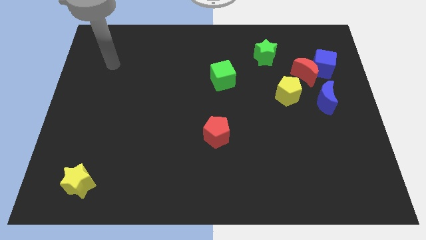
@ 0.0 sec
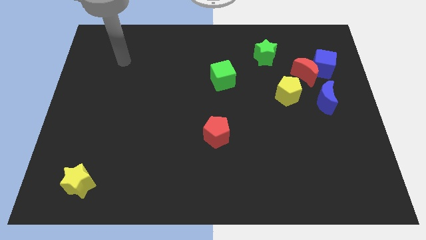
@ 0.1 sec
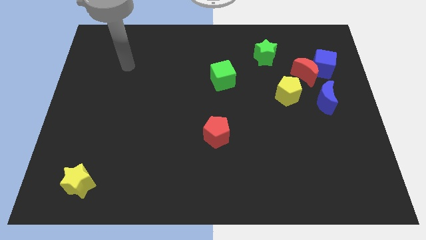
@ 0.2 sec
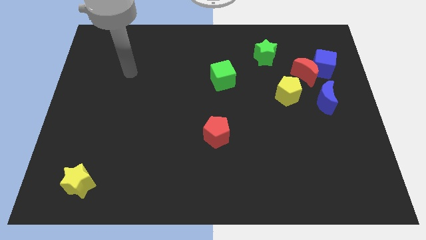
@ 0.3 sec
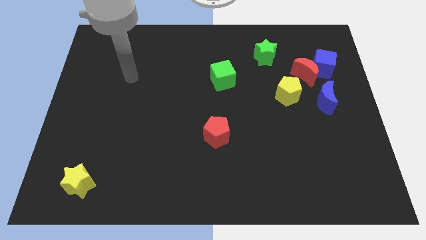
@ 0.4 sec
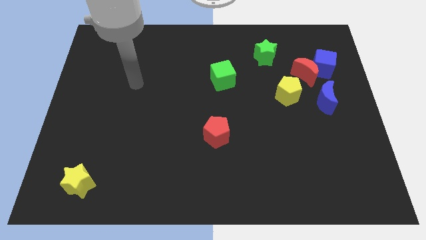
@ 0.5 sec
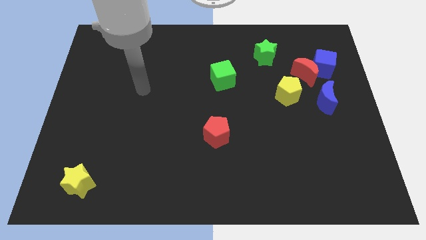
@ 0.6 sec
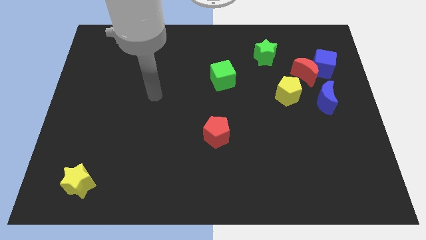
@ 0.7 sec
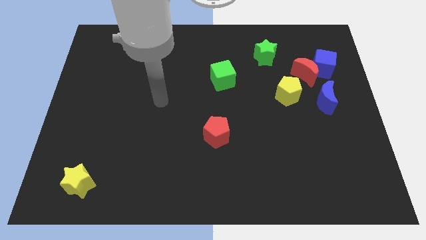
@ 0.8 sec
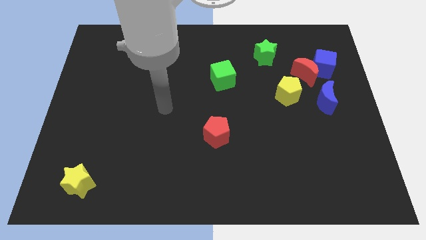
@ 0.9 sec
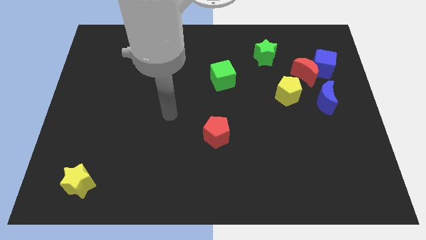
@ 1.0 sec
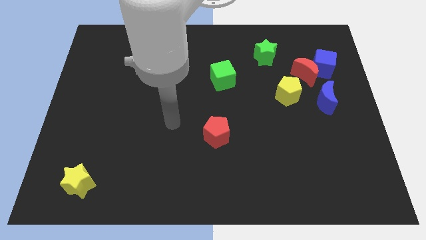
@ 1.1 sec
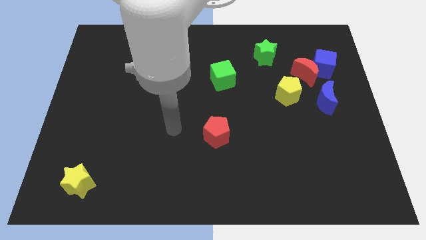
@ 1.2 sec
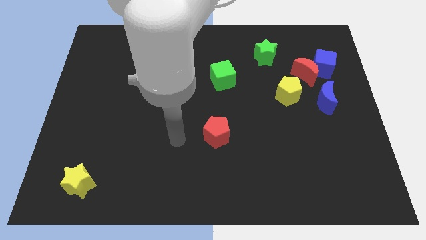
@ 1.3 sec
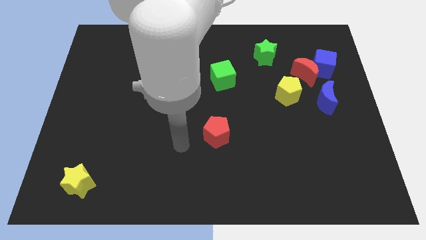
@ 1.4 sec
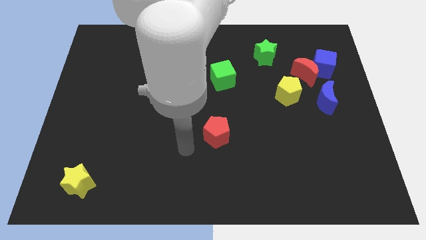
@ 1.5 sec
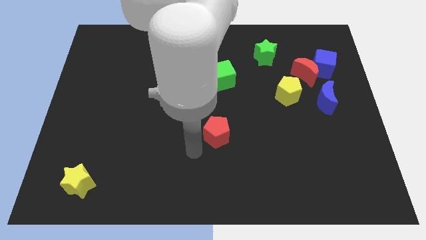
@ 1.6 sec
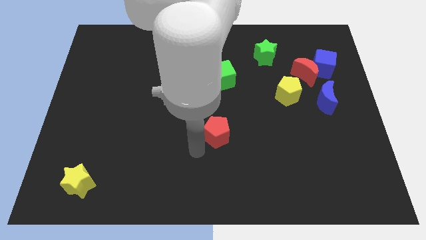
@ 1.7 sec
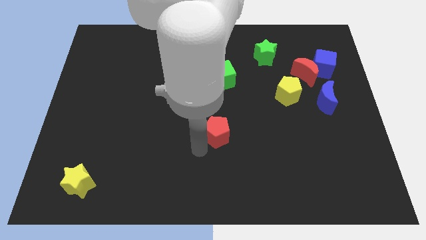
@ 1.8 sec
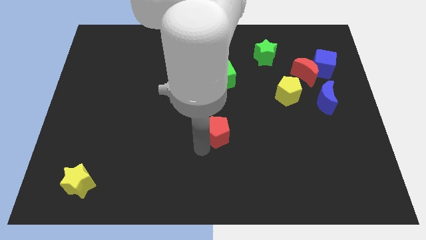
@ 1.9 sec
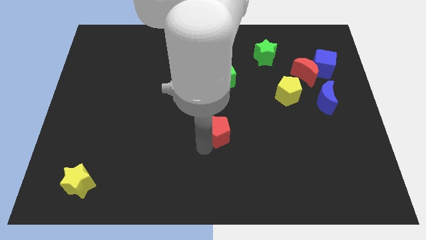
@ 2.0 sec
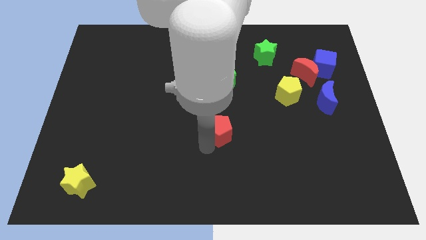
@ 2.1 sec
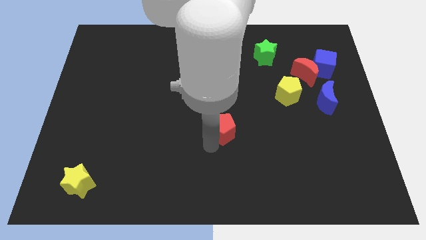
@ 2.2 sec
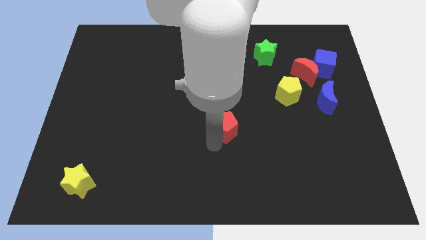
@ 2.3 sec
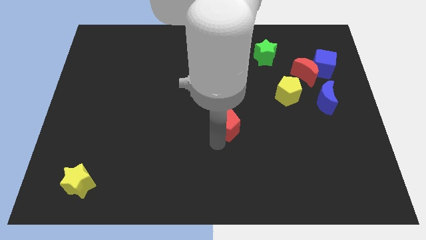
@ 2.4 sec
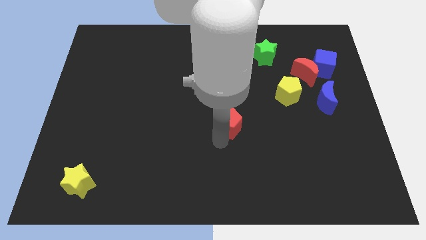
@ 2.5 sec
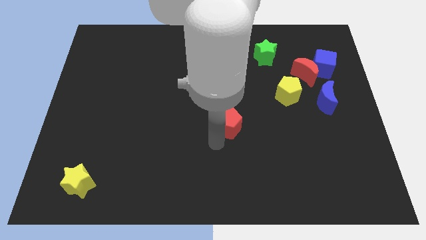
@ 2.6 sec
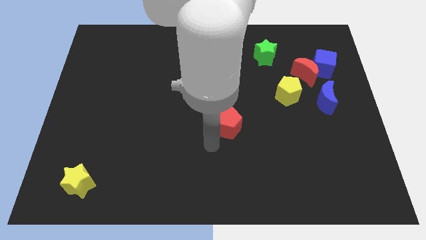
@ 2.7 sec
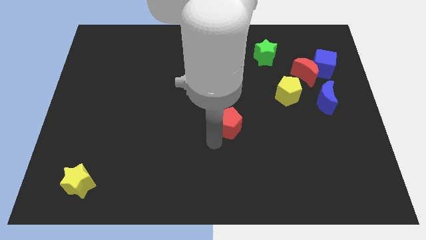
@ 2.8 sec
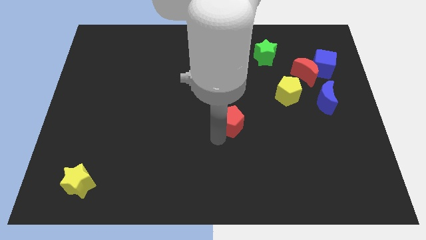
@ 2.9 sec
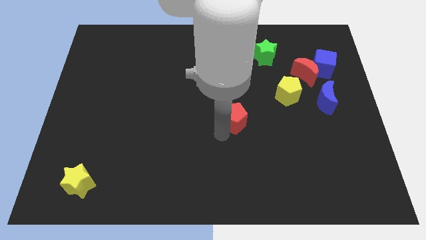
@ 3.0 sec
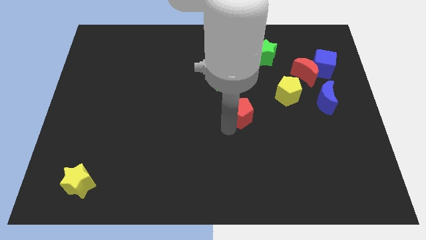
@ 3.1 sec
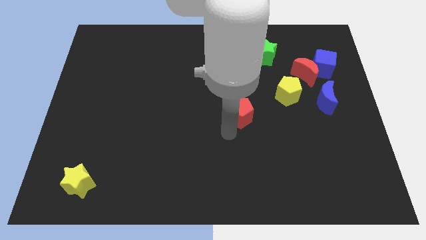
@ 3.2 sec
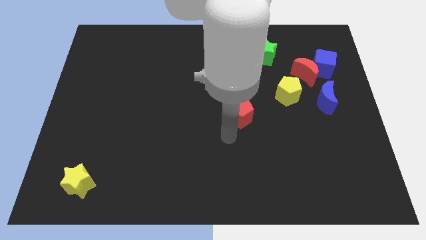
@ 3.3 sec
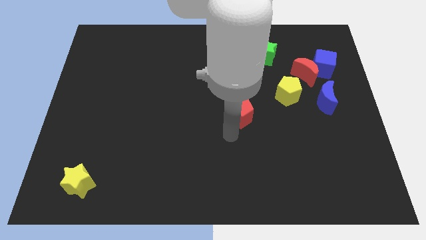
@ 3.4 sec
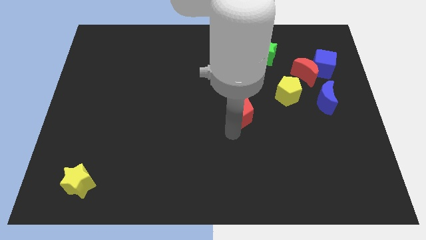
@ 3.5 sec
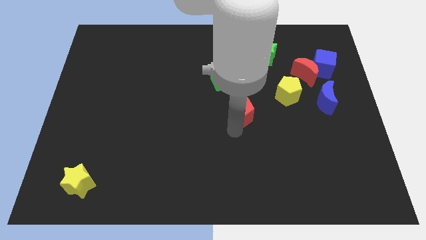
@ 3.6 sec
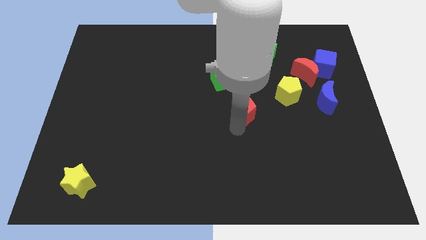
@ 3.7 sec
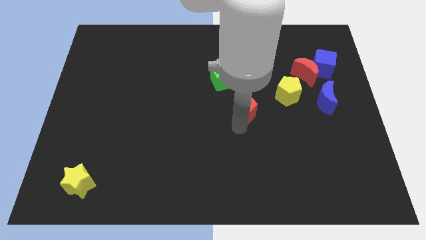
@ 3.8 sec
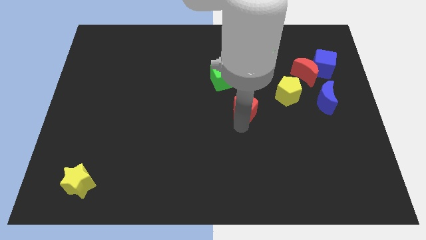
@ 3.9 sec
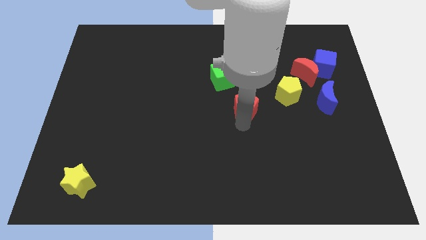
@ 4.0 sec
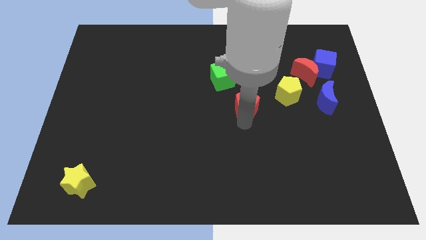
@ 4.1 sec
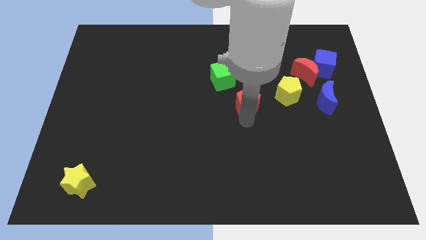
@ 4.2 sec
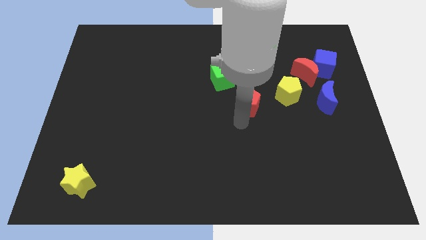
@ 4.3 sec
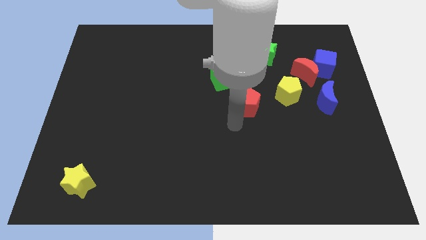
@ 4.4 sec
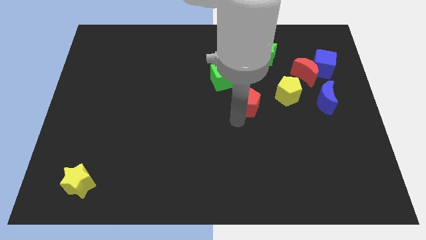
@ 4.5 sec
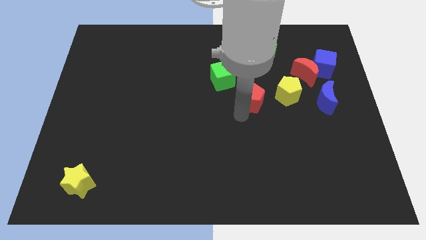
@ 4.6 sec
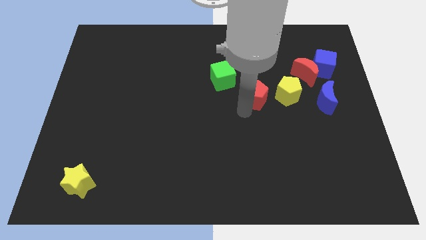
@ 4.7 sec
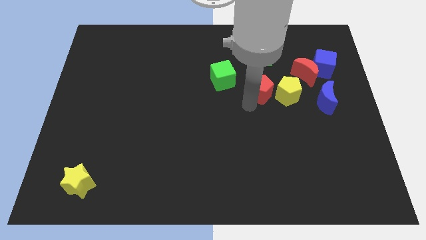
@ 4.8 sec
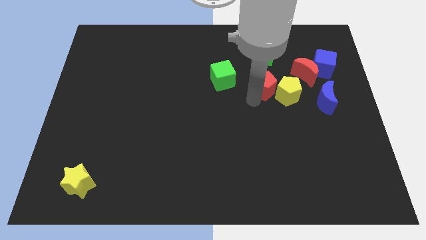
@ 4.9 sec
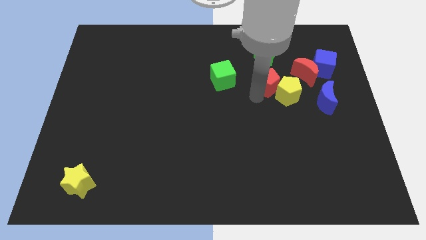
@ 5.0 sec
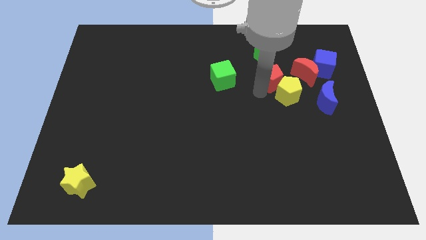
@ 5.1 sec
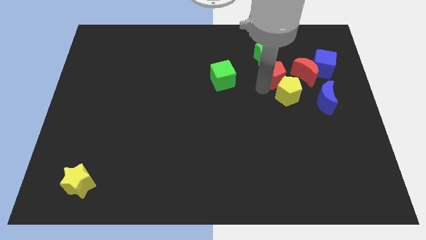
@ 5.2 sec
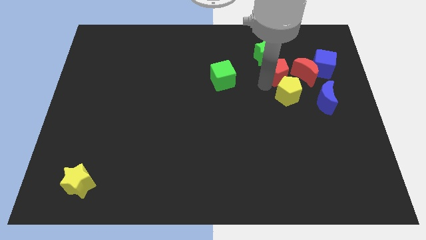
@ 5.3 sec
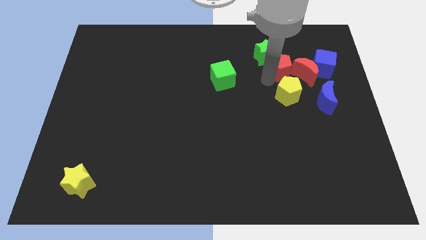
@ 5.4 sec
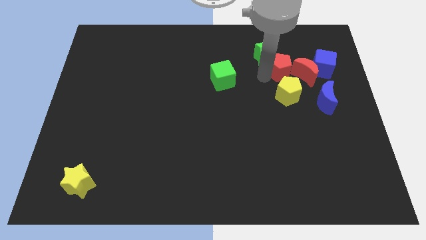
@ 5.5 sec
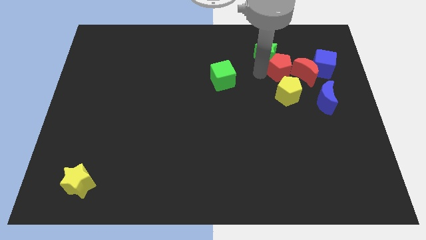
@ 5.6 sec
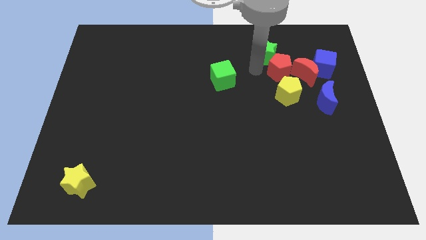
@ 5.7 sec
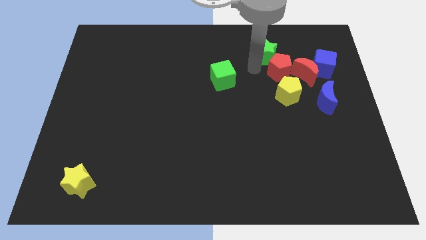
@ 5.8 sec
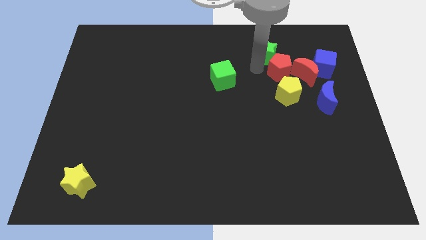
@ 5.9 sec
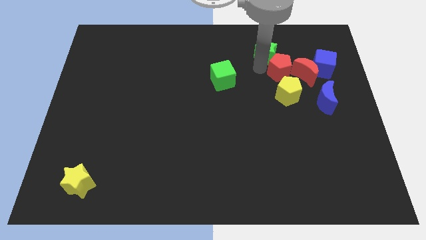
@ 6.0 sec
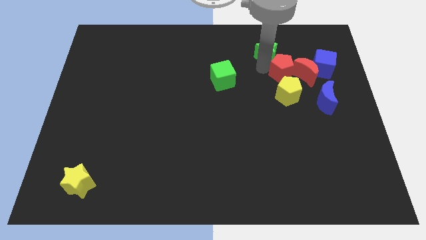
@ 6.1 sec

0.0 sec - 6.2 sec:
move the red pentagon to the red moon

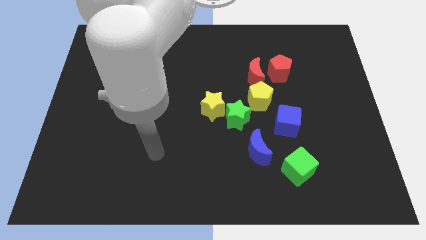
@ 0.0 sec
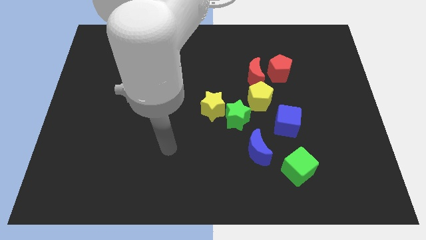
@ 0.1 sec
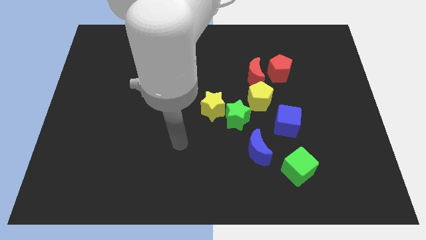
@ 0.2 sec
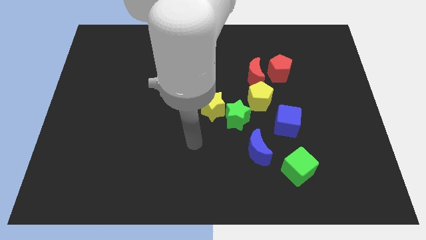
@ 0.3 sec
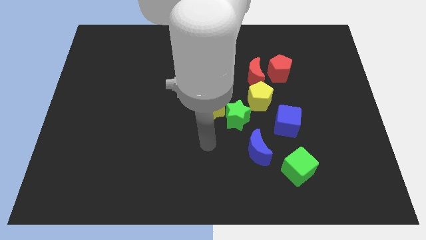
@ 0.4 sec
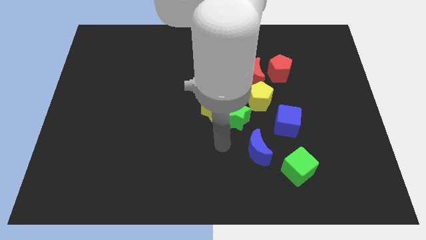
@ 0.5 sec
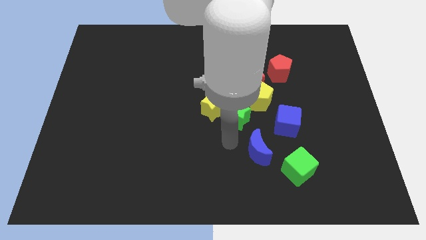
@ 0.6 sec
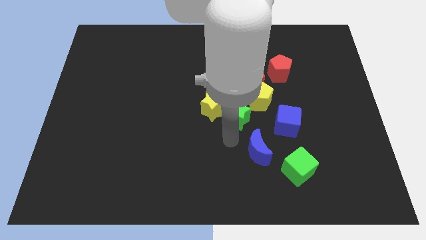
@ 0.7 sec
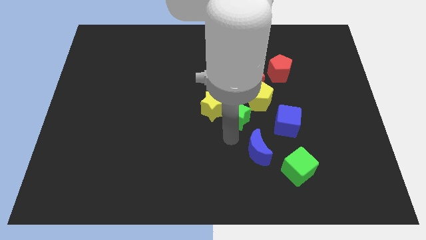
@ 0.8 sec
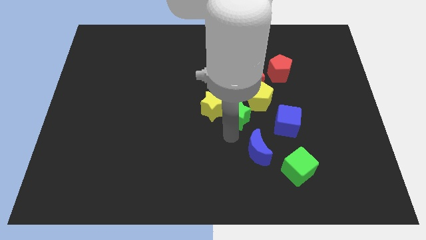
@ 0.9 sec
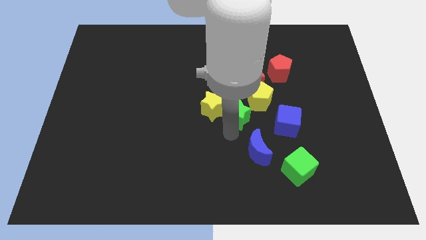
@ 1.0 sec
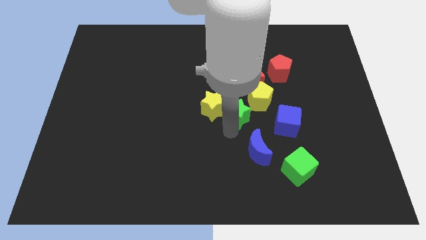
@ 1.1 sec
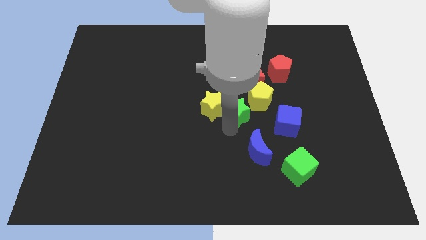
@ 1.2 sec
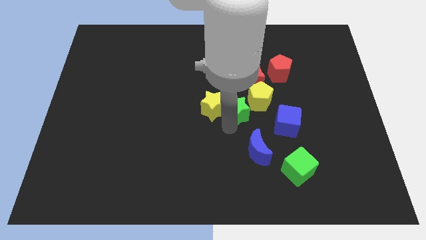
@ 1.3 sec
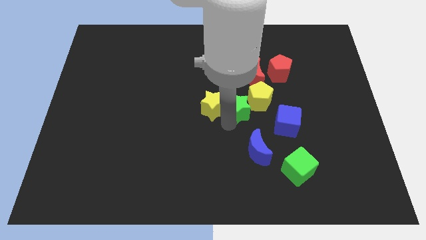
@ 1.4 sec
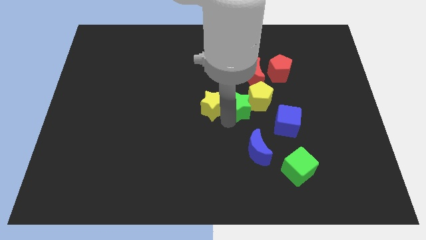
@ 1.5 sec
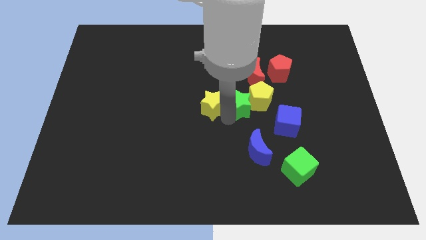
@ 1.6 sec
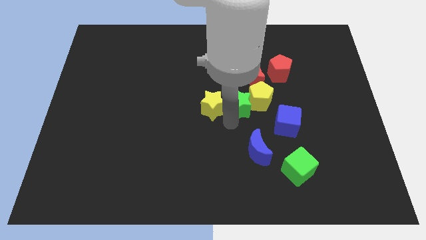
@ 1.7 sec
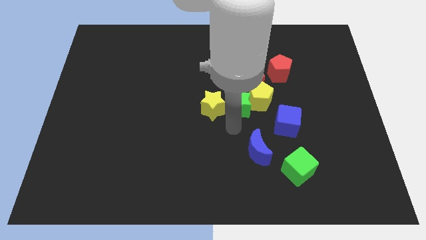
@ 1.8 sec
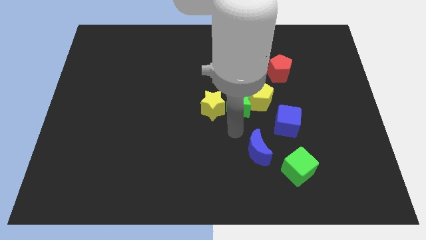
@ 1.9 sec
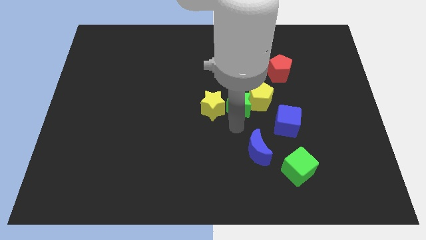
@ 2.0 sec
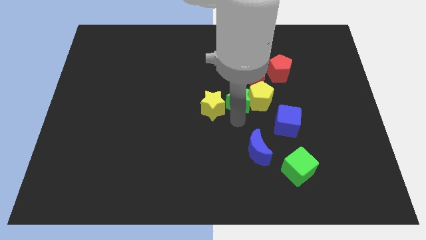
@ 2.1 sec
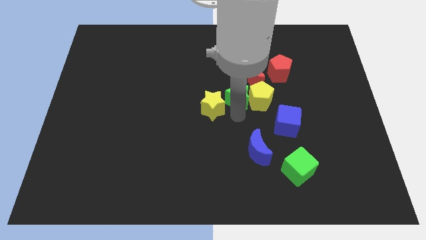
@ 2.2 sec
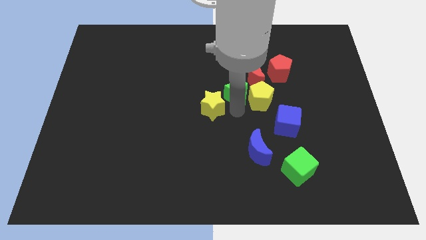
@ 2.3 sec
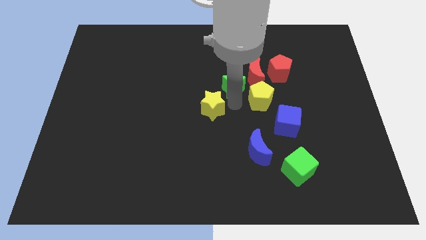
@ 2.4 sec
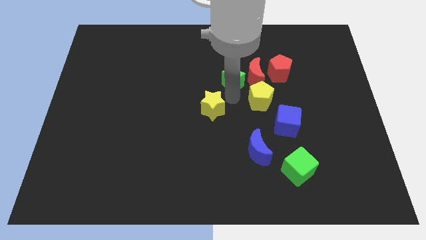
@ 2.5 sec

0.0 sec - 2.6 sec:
put the green star next to the red moon
